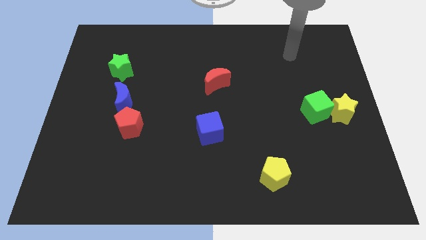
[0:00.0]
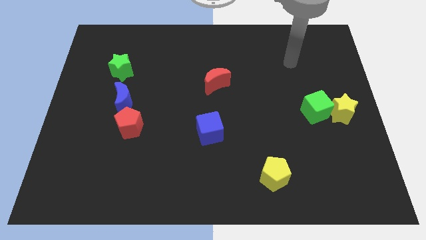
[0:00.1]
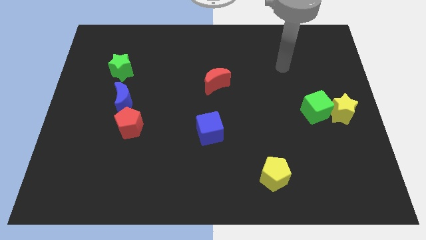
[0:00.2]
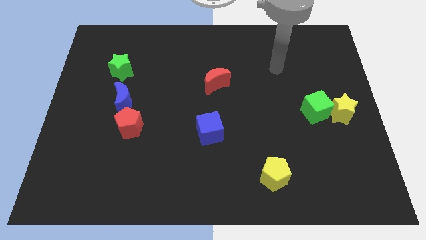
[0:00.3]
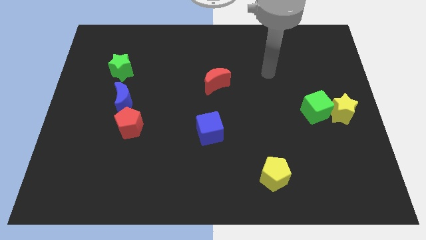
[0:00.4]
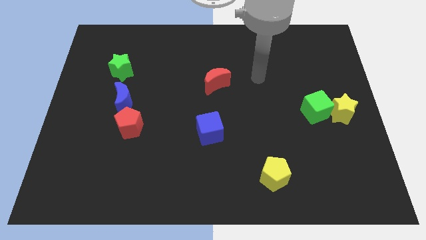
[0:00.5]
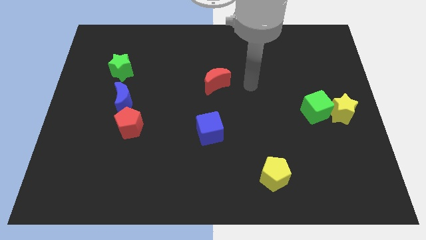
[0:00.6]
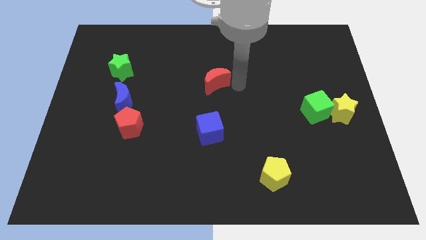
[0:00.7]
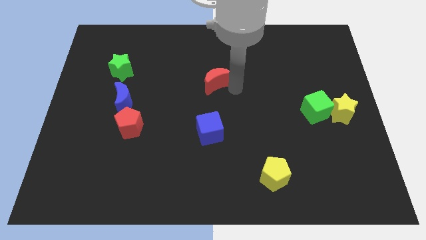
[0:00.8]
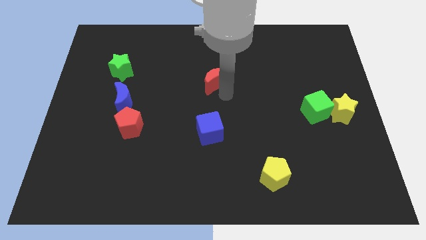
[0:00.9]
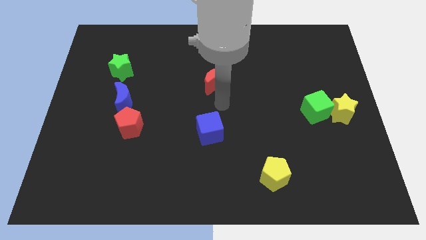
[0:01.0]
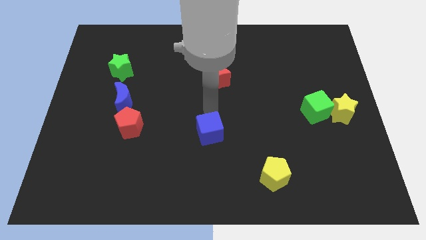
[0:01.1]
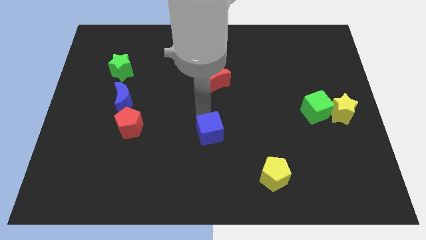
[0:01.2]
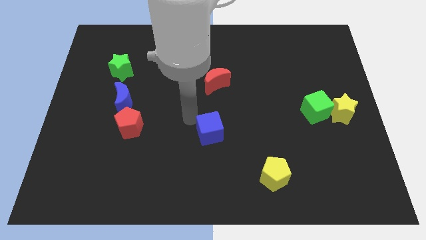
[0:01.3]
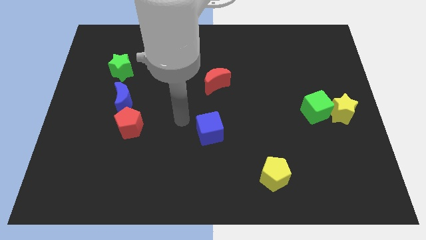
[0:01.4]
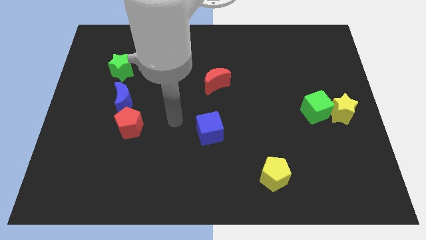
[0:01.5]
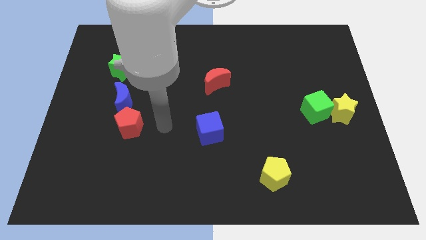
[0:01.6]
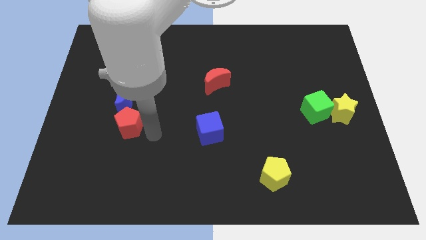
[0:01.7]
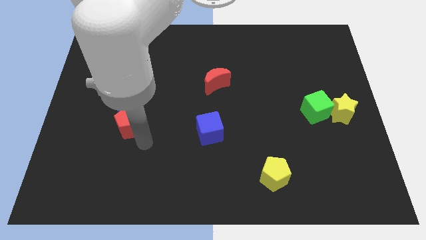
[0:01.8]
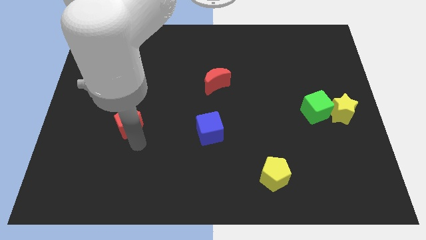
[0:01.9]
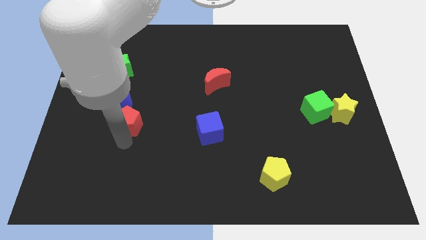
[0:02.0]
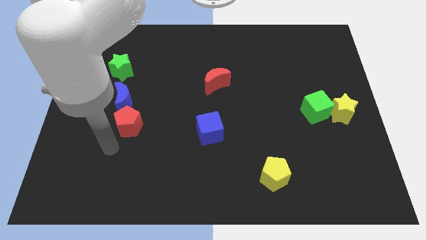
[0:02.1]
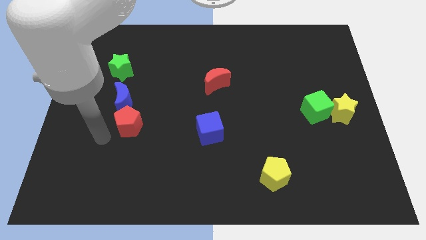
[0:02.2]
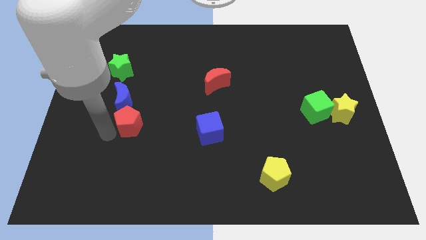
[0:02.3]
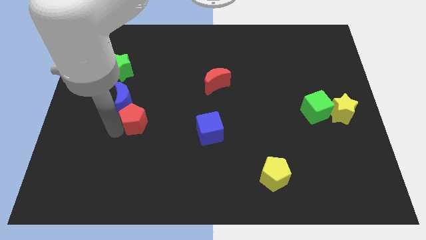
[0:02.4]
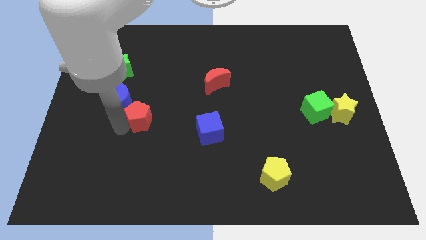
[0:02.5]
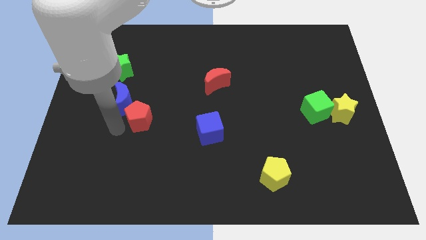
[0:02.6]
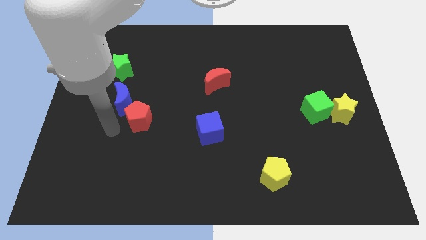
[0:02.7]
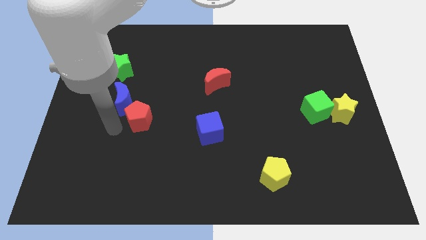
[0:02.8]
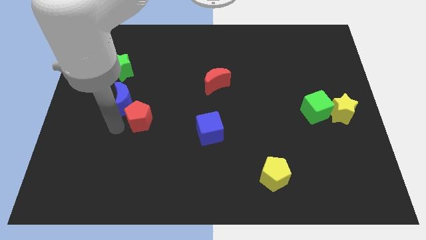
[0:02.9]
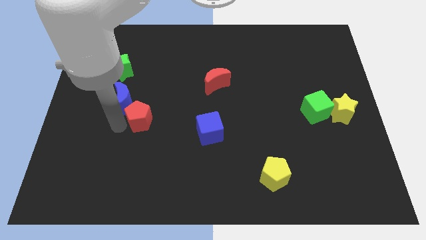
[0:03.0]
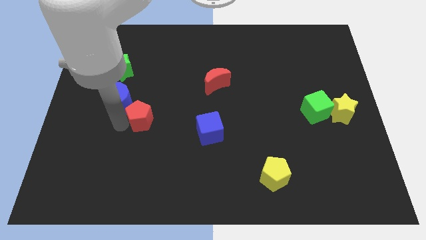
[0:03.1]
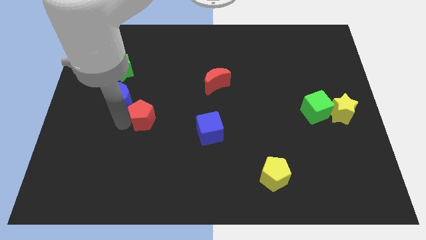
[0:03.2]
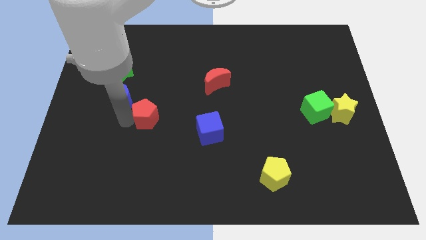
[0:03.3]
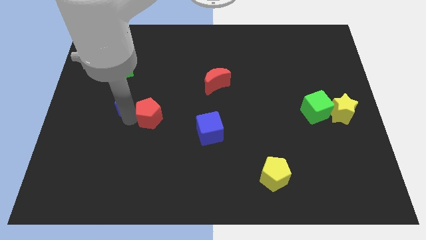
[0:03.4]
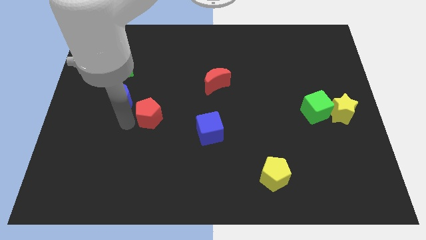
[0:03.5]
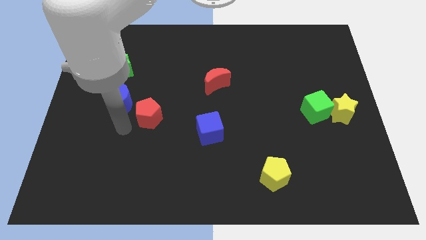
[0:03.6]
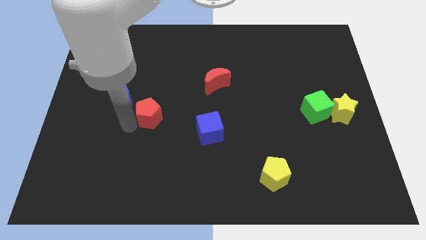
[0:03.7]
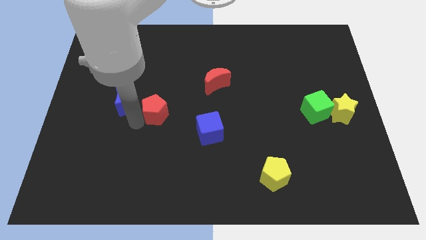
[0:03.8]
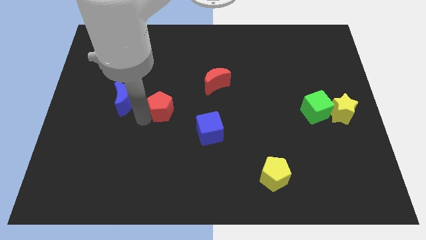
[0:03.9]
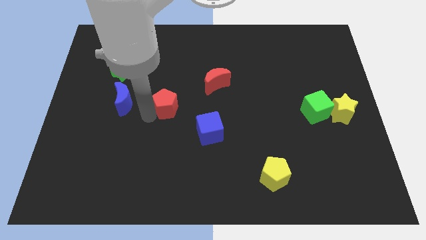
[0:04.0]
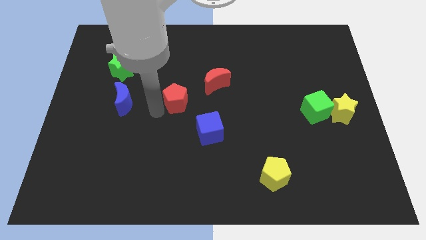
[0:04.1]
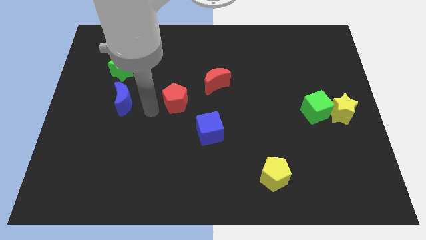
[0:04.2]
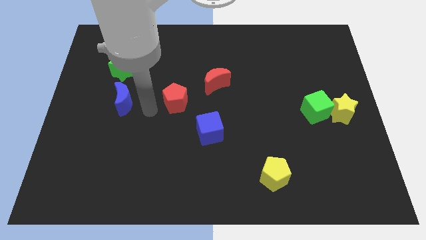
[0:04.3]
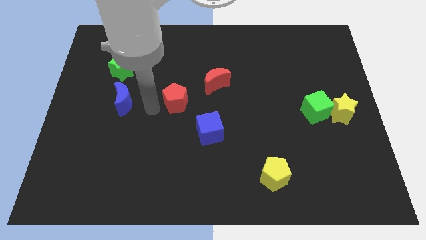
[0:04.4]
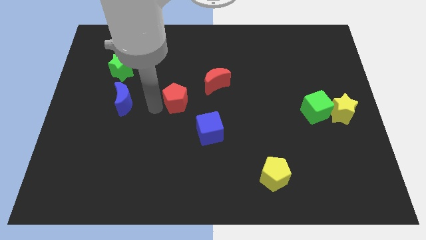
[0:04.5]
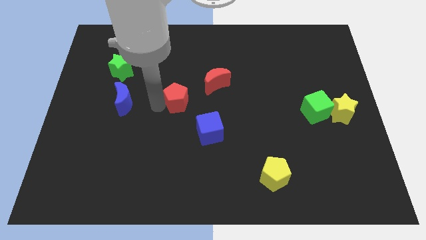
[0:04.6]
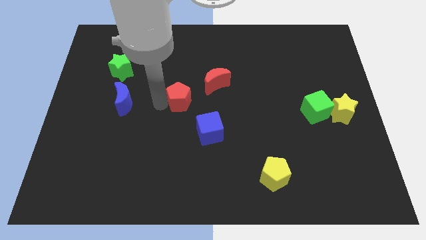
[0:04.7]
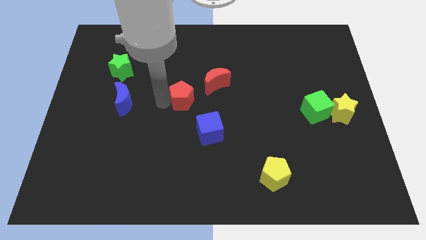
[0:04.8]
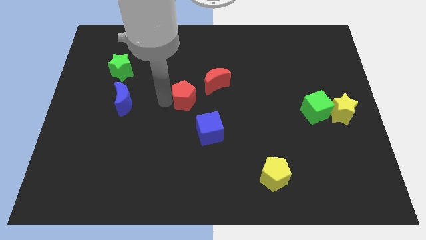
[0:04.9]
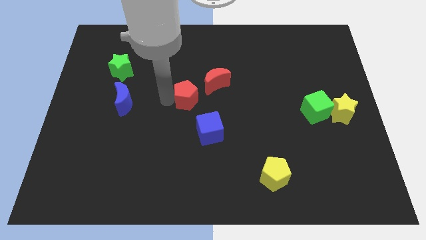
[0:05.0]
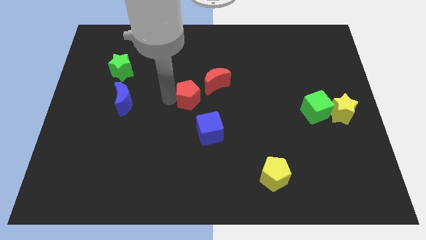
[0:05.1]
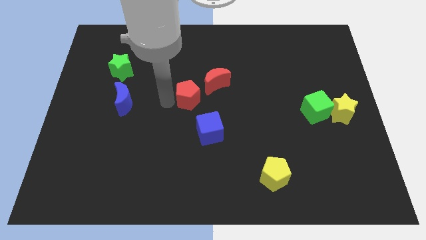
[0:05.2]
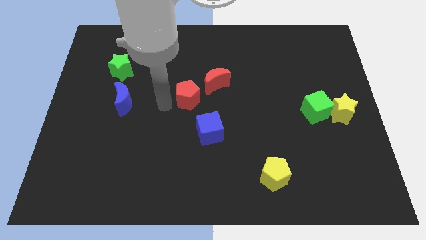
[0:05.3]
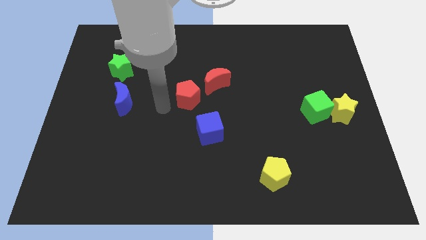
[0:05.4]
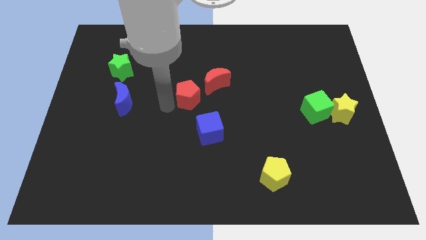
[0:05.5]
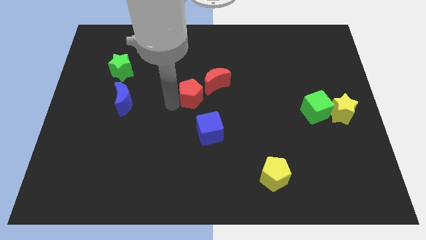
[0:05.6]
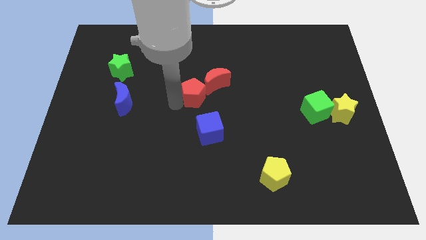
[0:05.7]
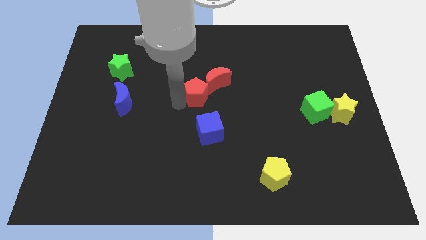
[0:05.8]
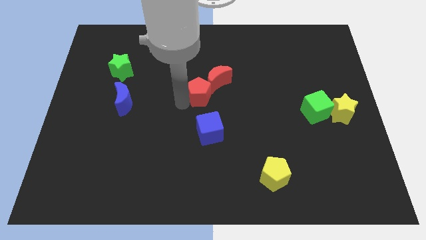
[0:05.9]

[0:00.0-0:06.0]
slide the red pentagon next to the red moon

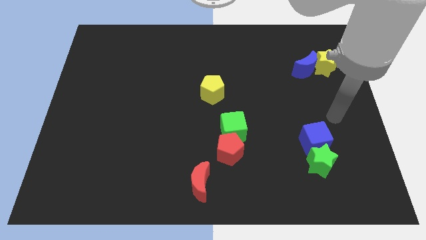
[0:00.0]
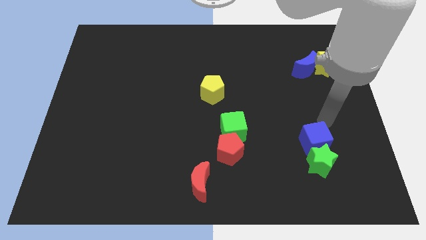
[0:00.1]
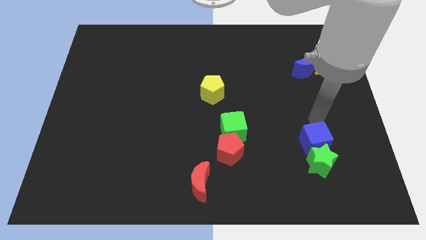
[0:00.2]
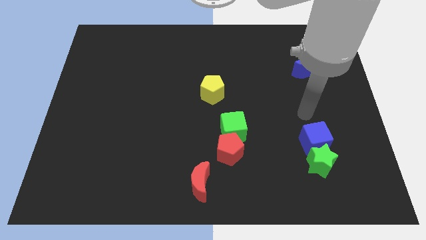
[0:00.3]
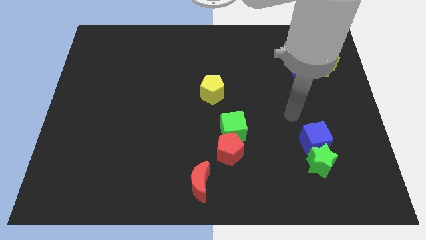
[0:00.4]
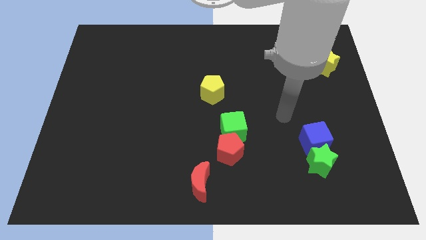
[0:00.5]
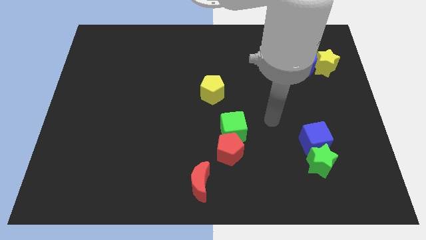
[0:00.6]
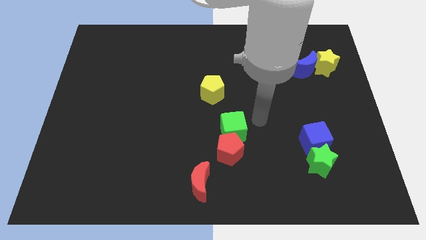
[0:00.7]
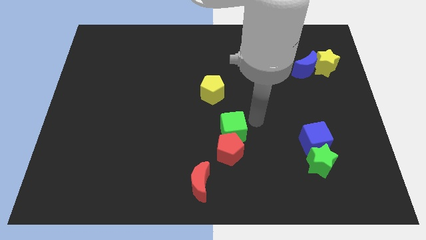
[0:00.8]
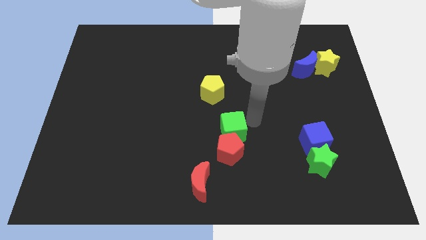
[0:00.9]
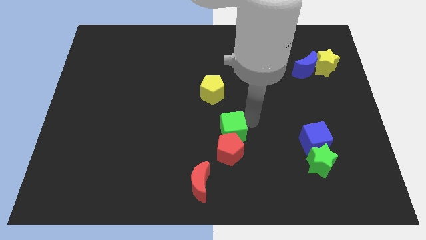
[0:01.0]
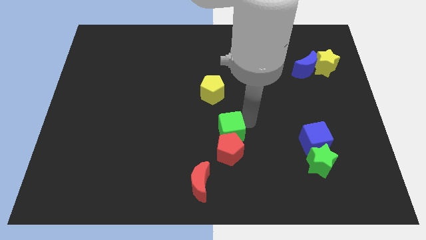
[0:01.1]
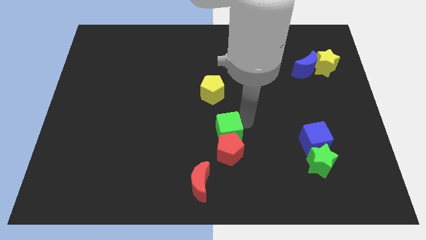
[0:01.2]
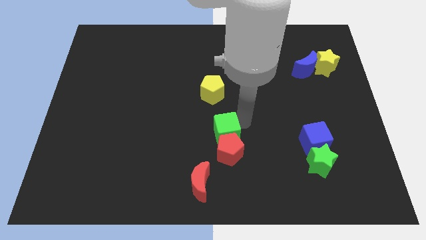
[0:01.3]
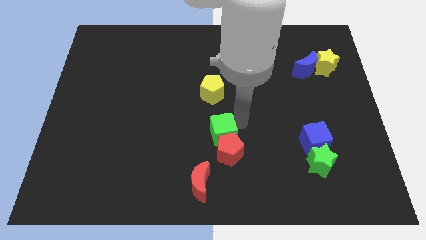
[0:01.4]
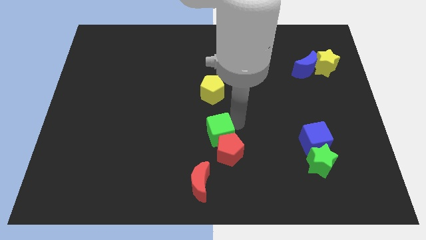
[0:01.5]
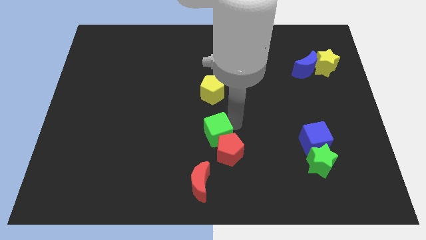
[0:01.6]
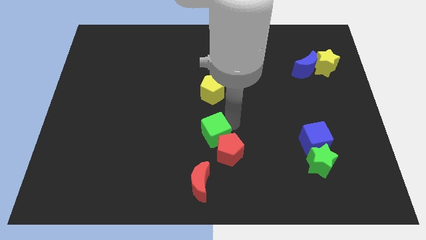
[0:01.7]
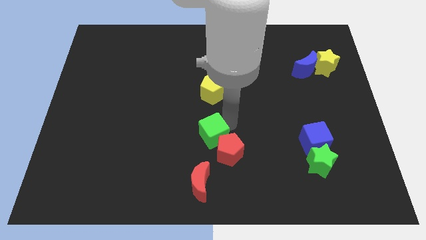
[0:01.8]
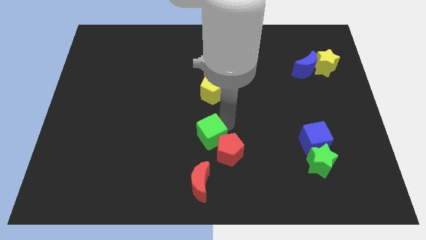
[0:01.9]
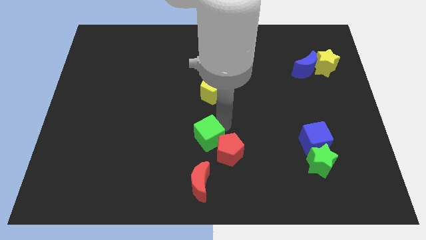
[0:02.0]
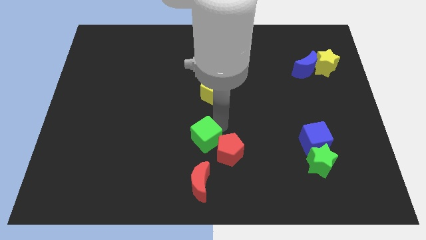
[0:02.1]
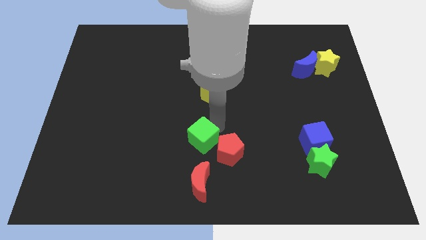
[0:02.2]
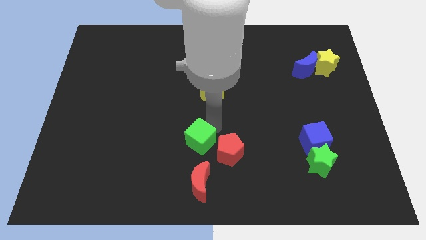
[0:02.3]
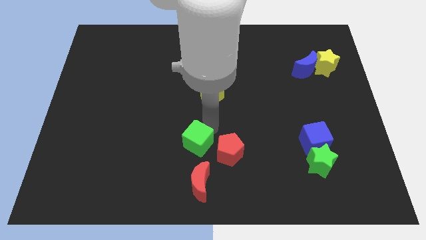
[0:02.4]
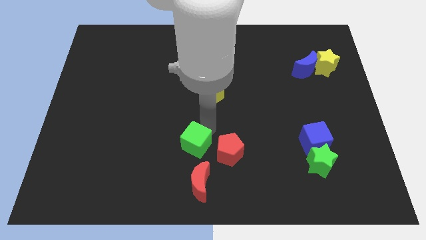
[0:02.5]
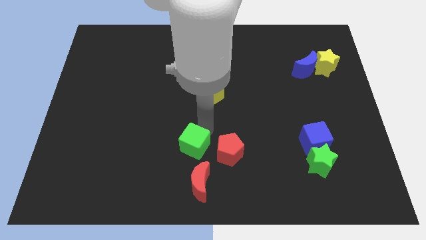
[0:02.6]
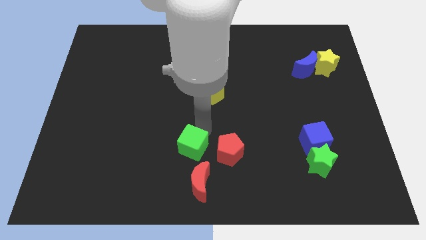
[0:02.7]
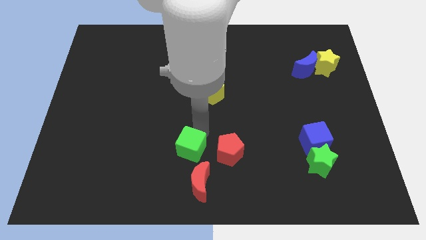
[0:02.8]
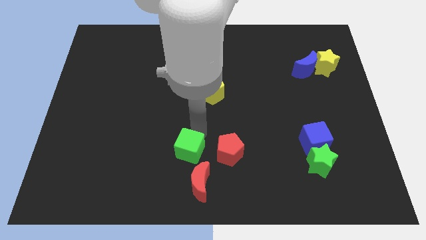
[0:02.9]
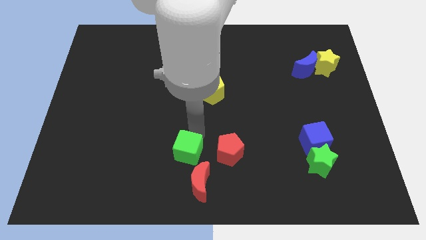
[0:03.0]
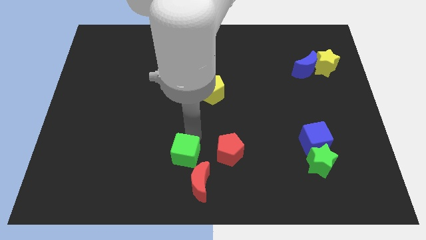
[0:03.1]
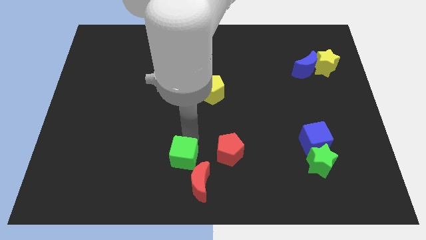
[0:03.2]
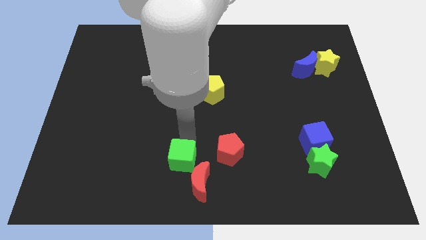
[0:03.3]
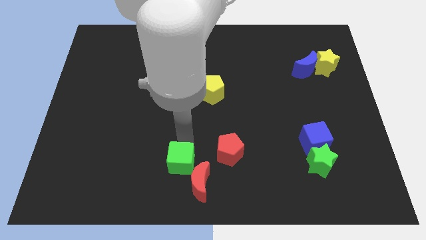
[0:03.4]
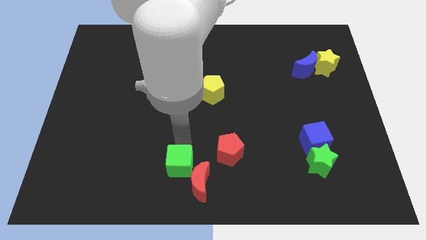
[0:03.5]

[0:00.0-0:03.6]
slide the green cube close to the red moon
